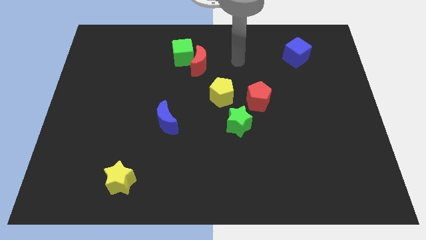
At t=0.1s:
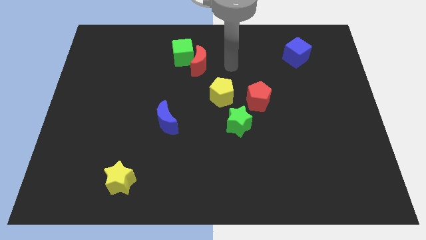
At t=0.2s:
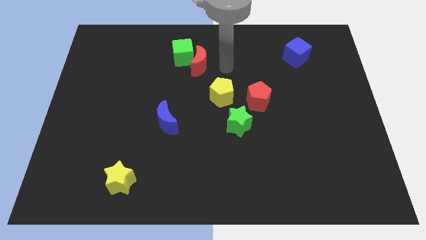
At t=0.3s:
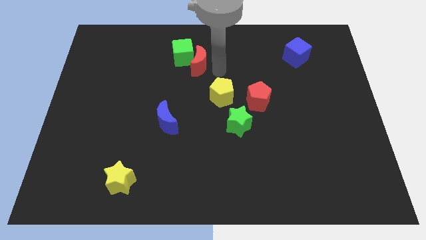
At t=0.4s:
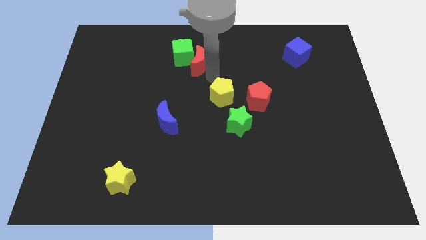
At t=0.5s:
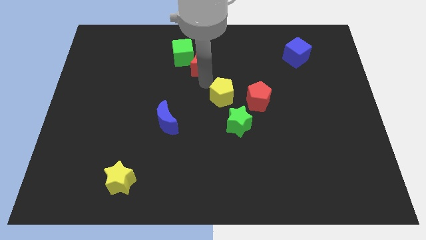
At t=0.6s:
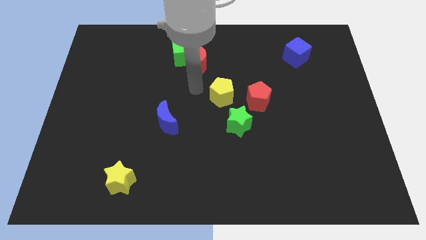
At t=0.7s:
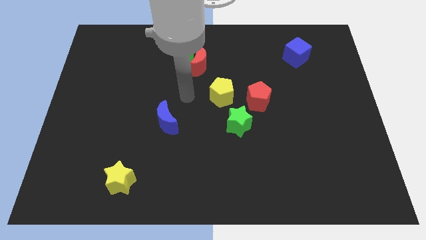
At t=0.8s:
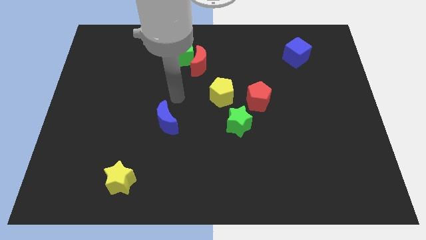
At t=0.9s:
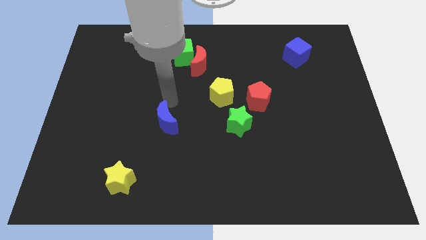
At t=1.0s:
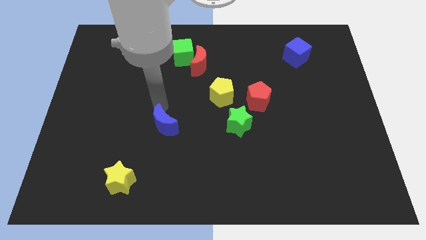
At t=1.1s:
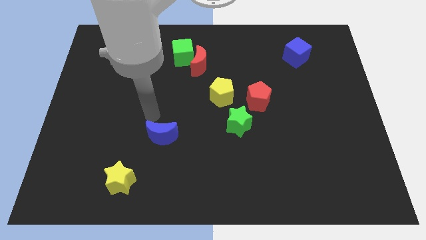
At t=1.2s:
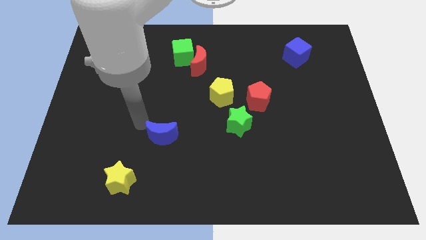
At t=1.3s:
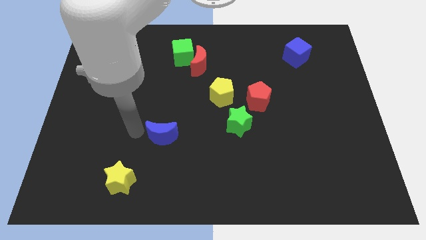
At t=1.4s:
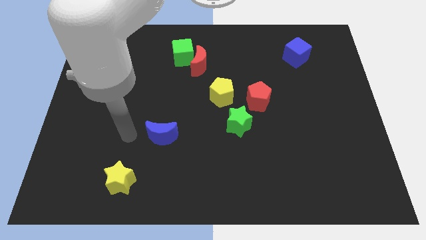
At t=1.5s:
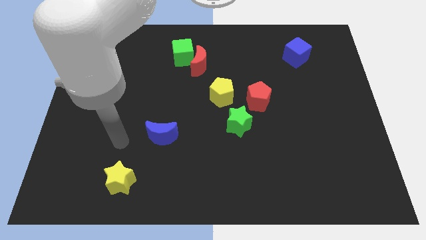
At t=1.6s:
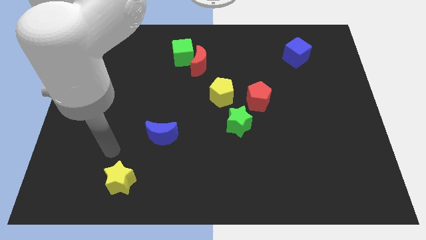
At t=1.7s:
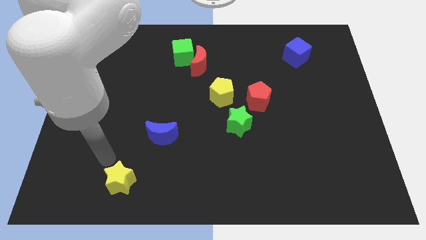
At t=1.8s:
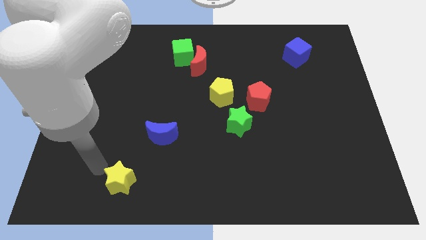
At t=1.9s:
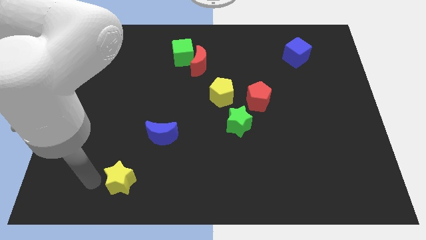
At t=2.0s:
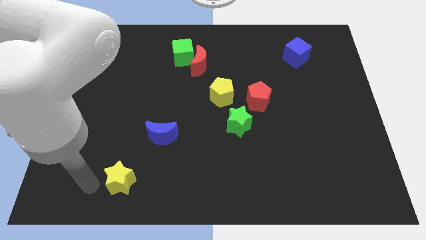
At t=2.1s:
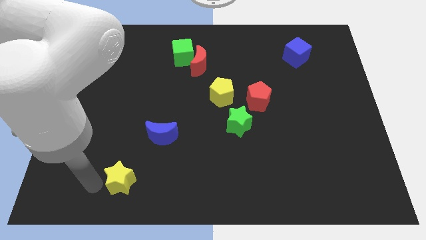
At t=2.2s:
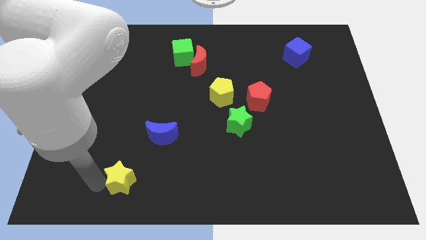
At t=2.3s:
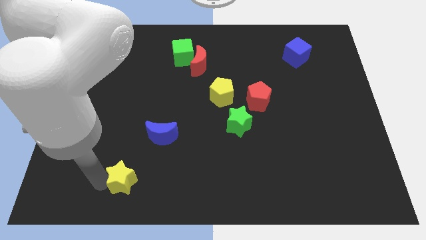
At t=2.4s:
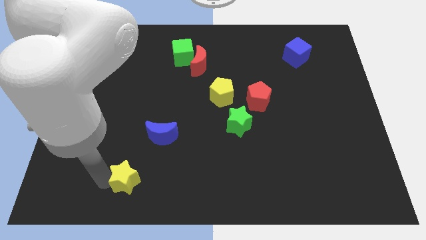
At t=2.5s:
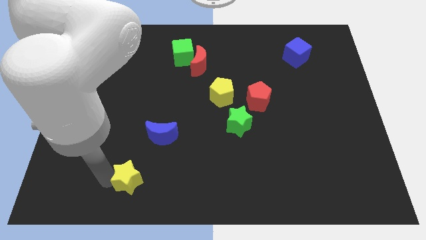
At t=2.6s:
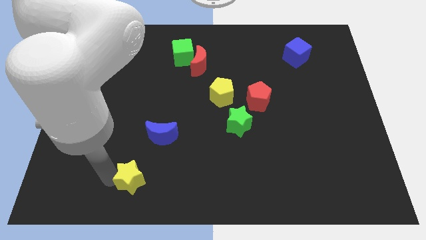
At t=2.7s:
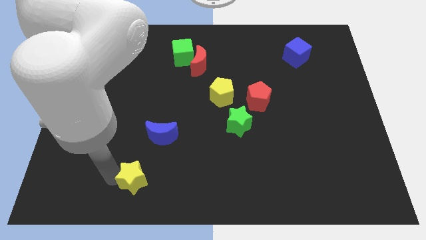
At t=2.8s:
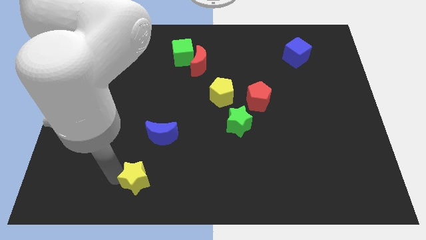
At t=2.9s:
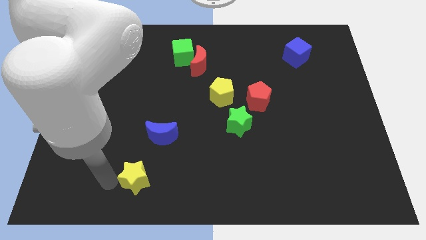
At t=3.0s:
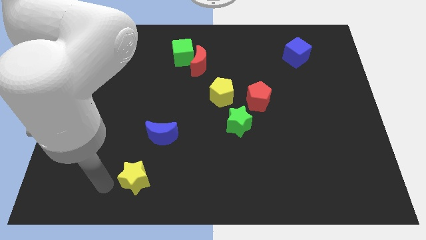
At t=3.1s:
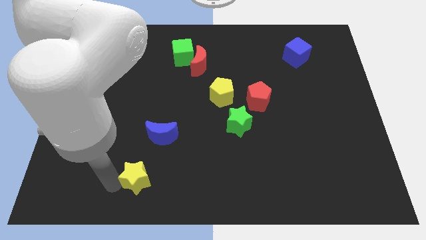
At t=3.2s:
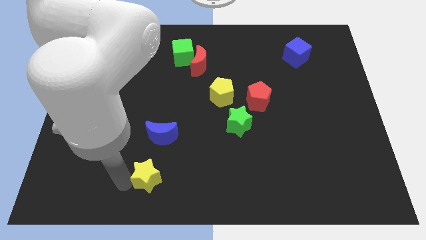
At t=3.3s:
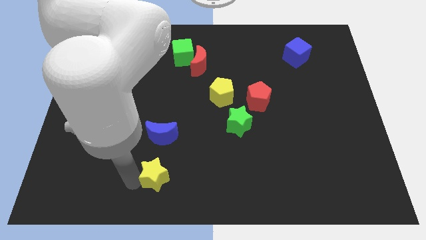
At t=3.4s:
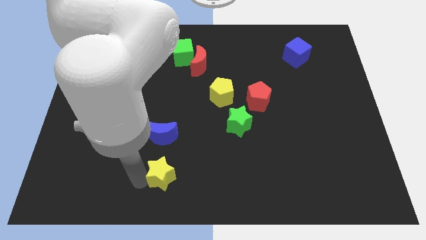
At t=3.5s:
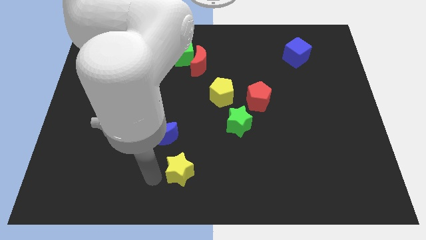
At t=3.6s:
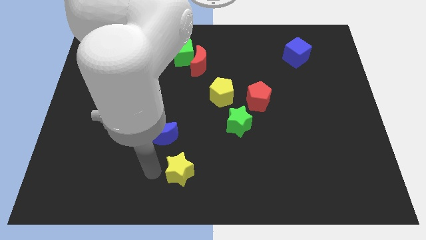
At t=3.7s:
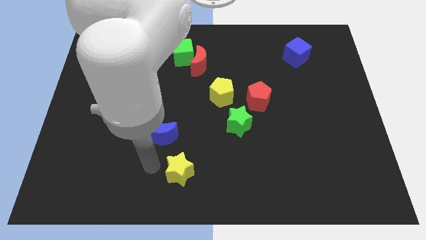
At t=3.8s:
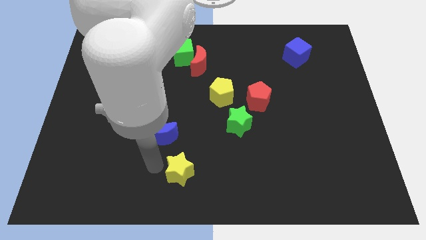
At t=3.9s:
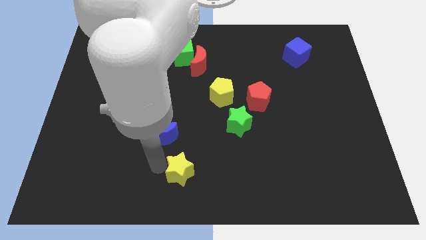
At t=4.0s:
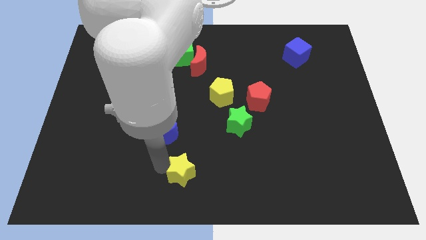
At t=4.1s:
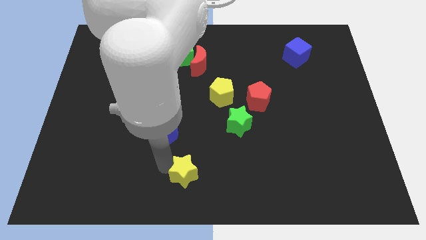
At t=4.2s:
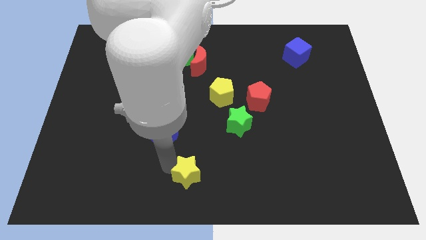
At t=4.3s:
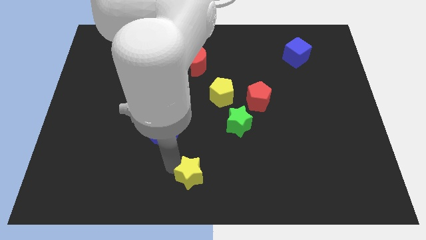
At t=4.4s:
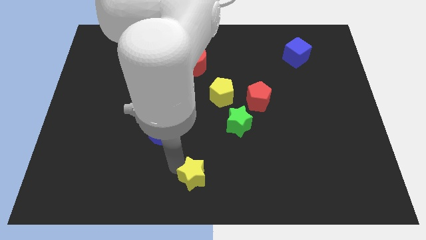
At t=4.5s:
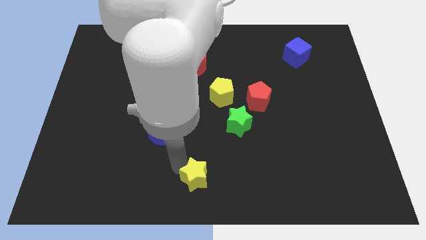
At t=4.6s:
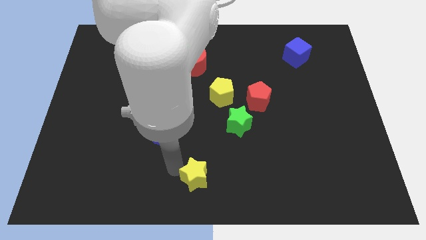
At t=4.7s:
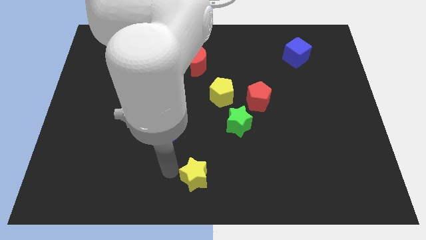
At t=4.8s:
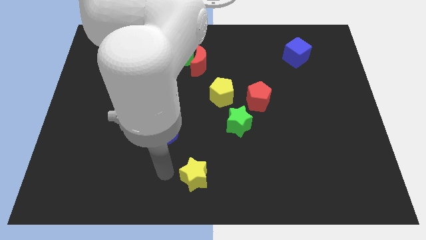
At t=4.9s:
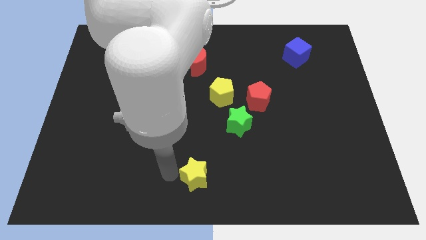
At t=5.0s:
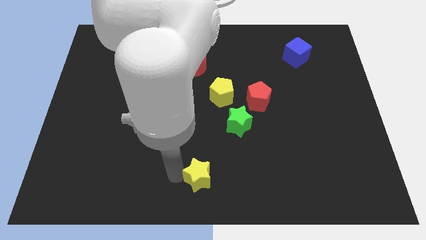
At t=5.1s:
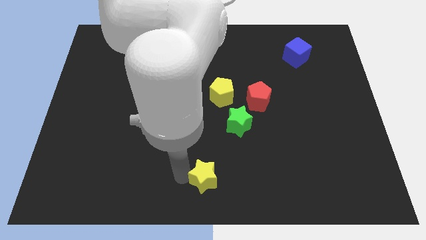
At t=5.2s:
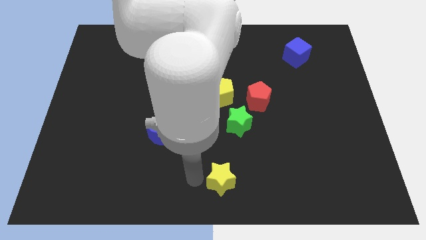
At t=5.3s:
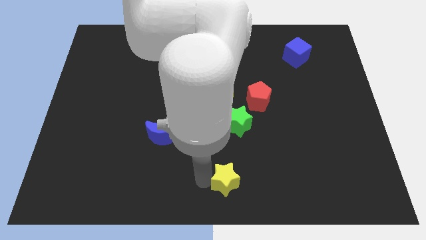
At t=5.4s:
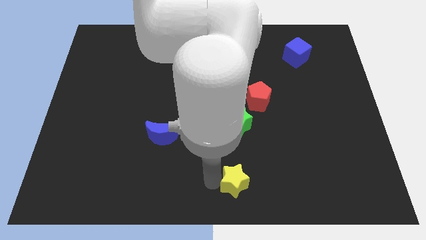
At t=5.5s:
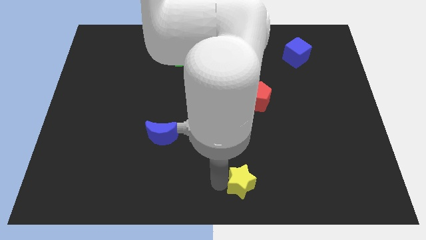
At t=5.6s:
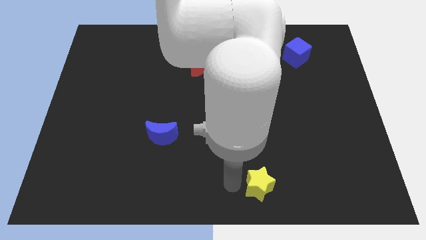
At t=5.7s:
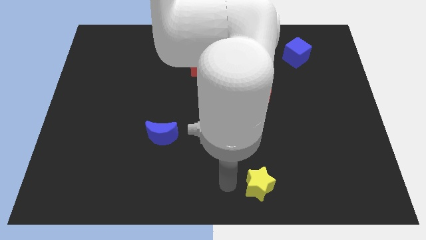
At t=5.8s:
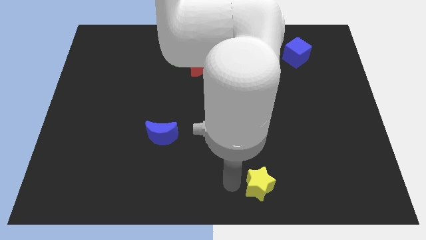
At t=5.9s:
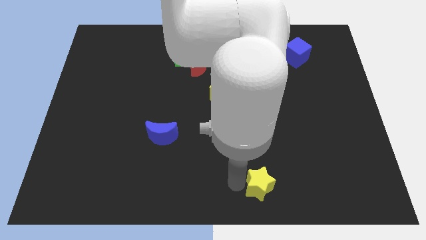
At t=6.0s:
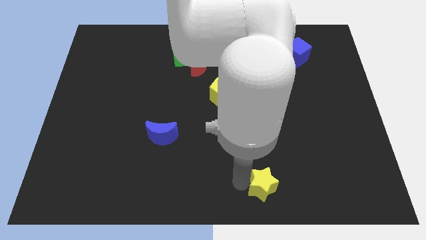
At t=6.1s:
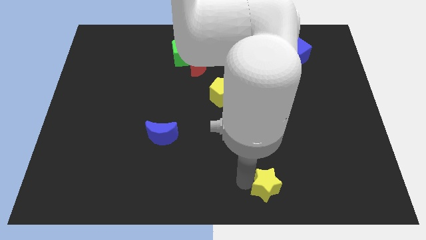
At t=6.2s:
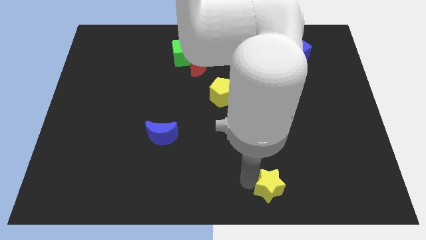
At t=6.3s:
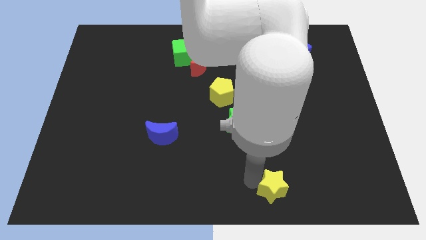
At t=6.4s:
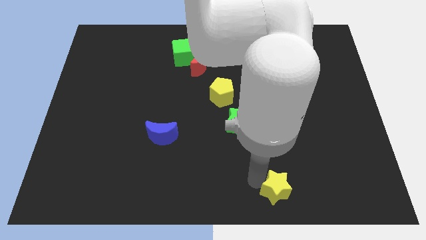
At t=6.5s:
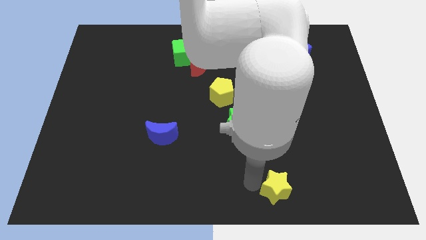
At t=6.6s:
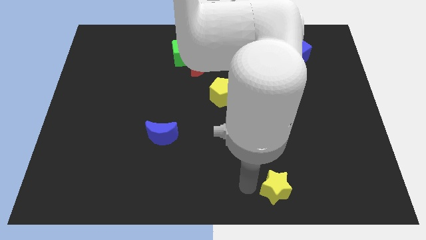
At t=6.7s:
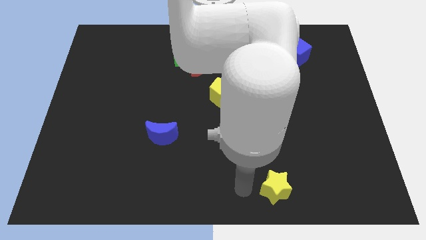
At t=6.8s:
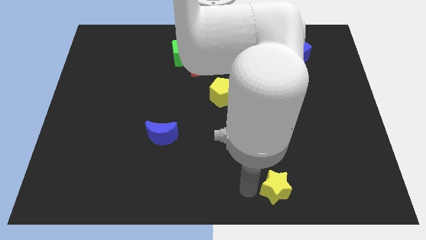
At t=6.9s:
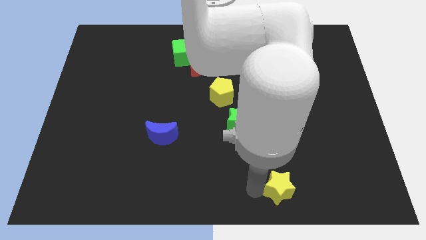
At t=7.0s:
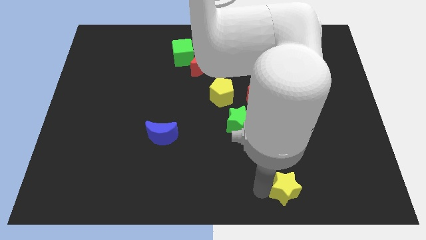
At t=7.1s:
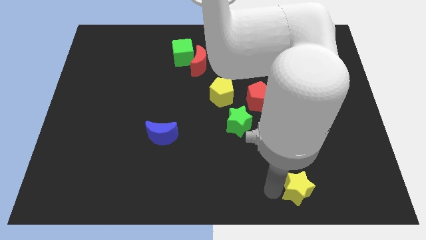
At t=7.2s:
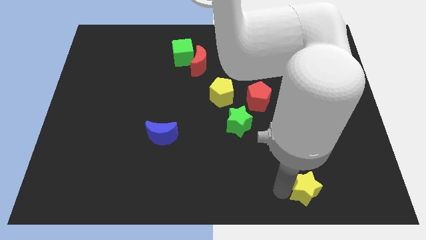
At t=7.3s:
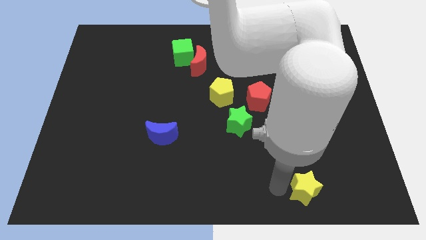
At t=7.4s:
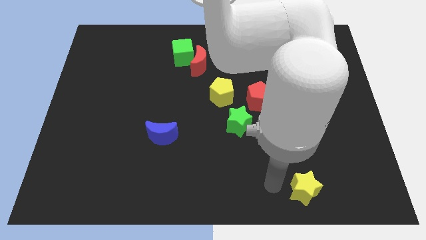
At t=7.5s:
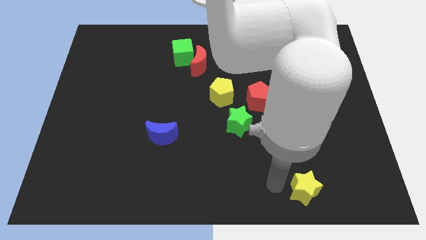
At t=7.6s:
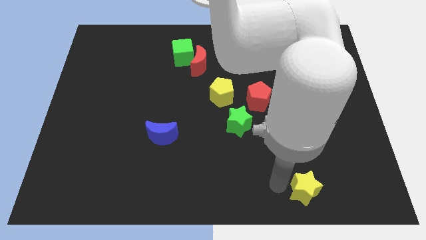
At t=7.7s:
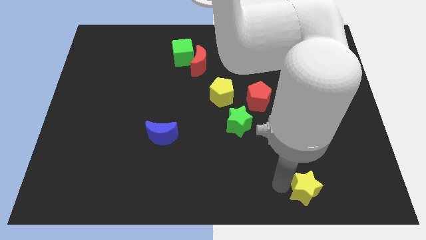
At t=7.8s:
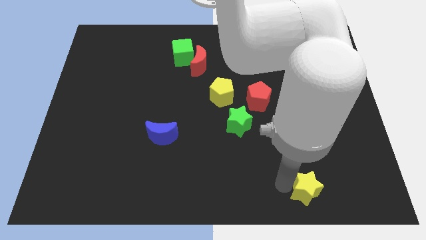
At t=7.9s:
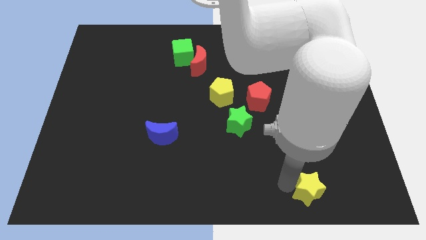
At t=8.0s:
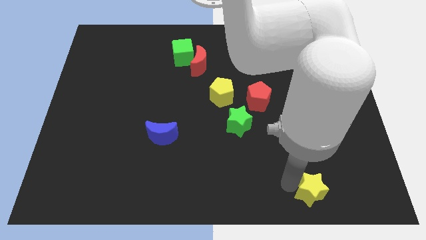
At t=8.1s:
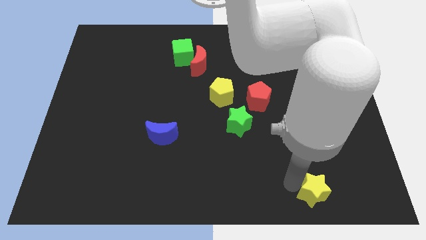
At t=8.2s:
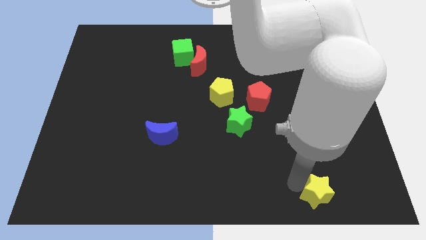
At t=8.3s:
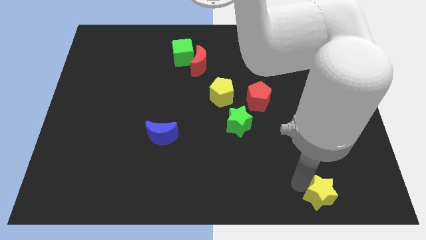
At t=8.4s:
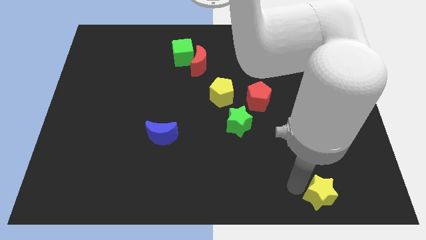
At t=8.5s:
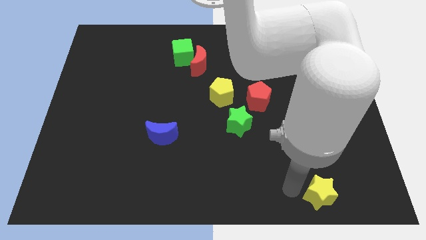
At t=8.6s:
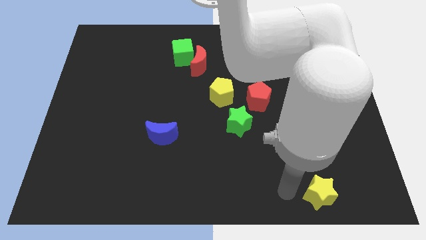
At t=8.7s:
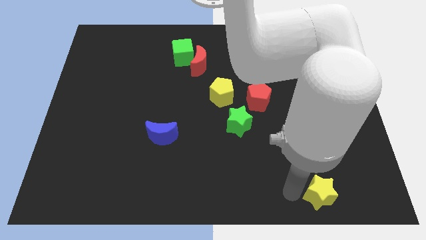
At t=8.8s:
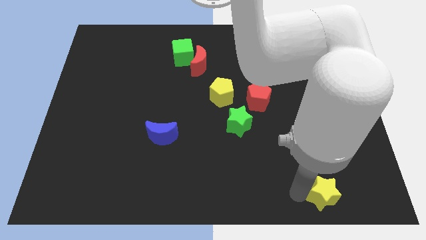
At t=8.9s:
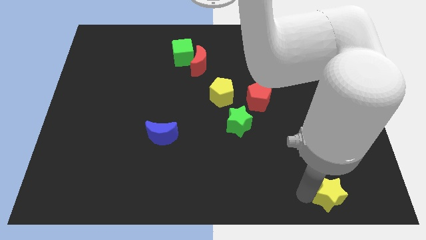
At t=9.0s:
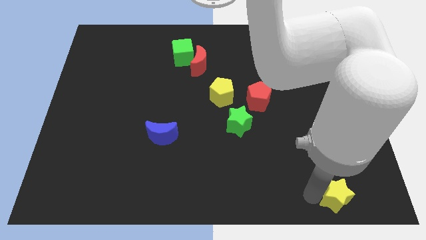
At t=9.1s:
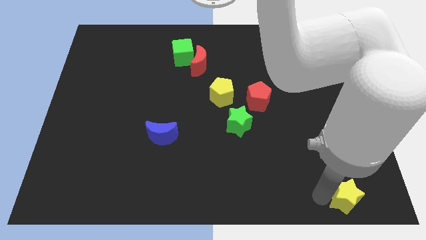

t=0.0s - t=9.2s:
push the yellow star to the bottom right
